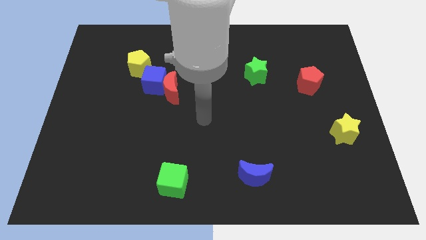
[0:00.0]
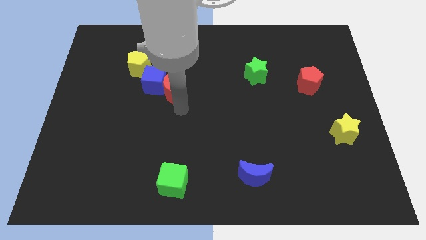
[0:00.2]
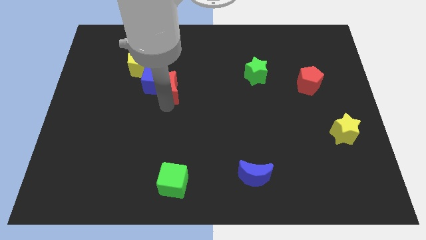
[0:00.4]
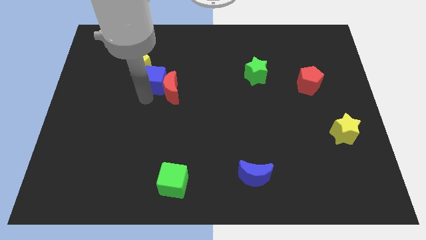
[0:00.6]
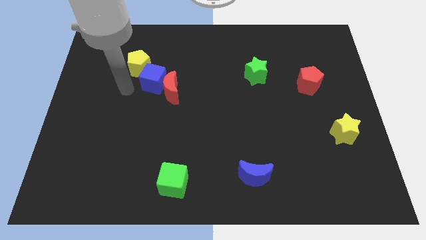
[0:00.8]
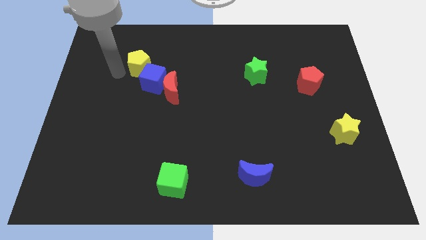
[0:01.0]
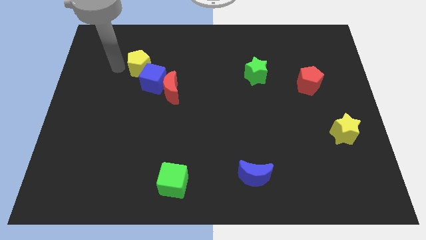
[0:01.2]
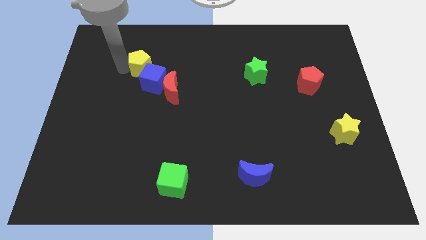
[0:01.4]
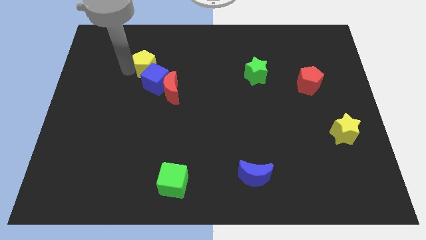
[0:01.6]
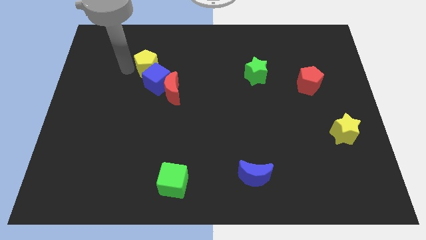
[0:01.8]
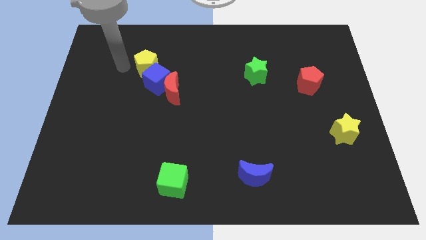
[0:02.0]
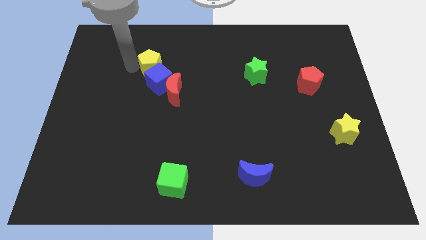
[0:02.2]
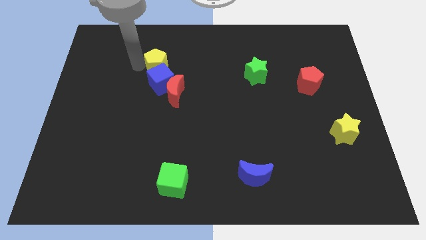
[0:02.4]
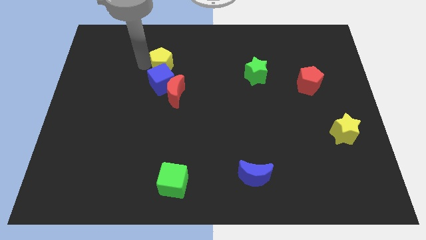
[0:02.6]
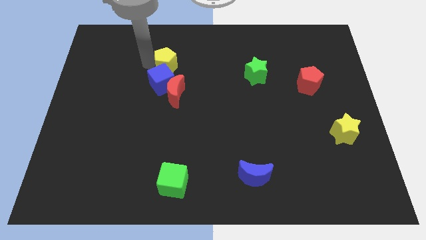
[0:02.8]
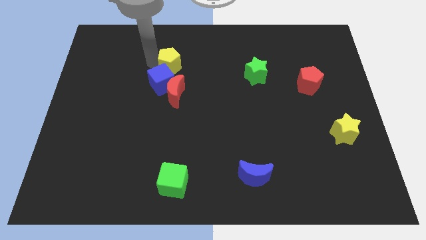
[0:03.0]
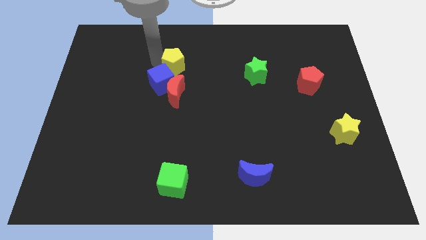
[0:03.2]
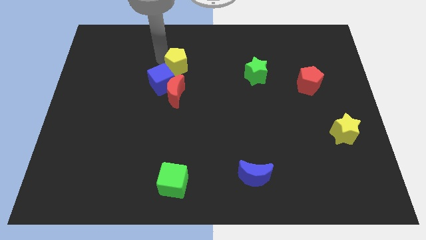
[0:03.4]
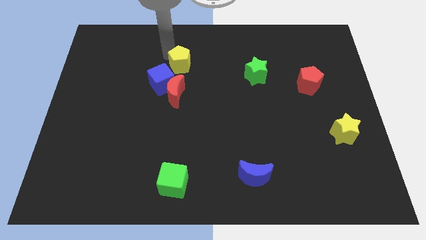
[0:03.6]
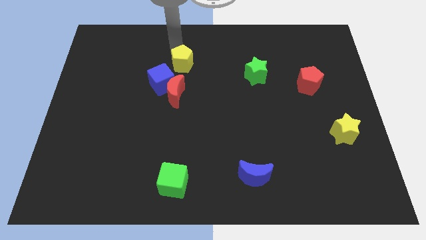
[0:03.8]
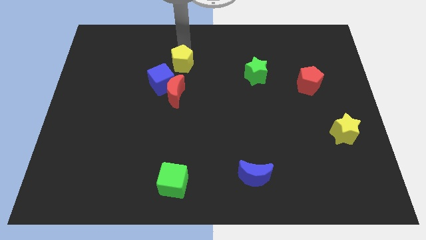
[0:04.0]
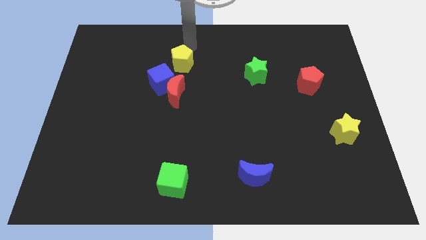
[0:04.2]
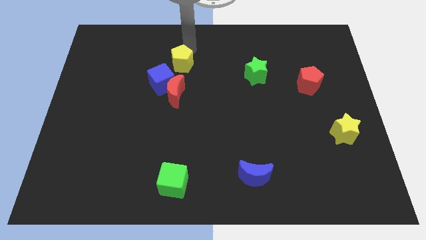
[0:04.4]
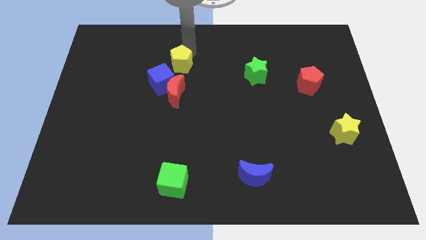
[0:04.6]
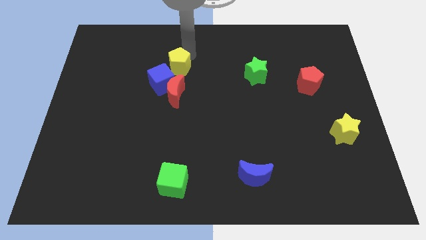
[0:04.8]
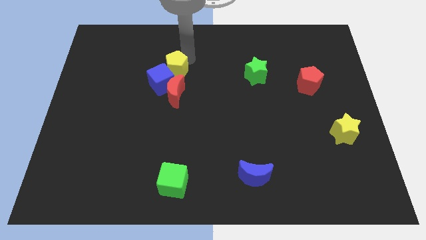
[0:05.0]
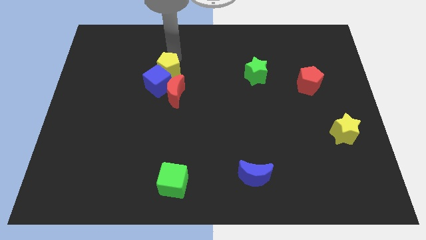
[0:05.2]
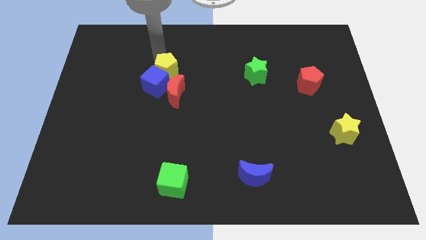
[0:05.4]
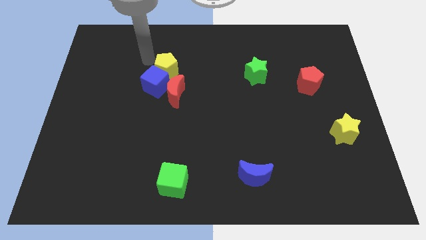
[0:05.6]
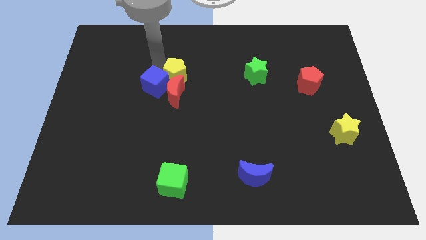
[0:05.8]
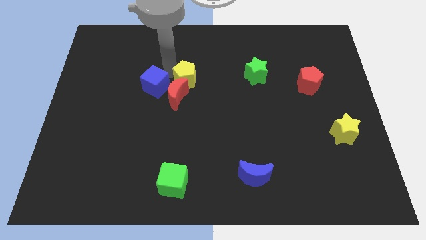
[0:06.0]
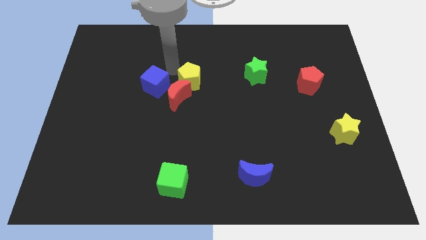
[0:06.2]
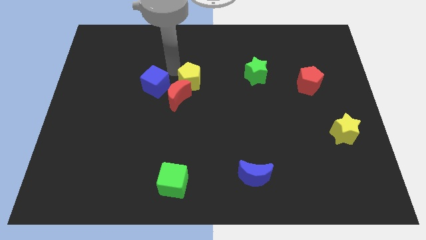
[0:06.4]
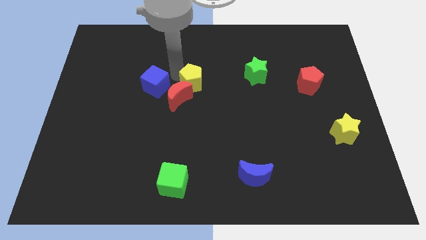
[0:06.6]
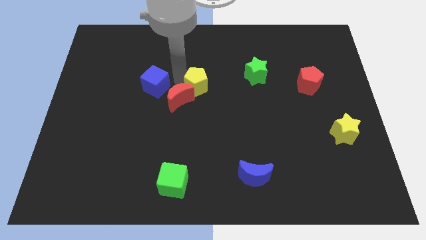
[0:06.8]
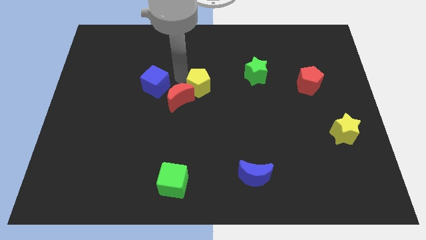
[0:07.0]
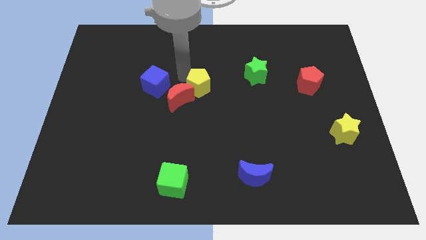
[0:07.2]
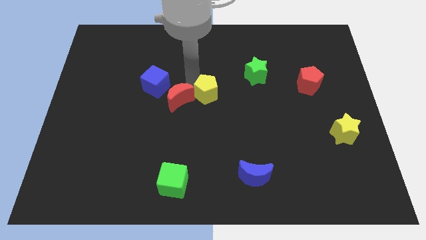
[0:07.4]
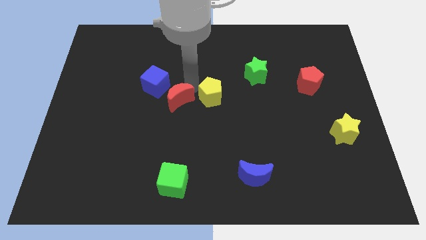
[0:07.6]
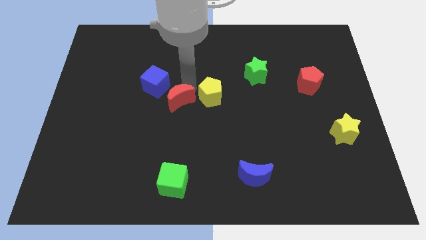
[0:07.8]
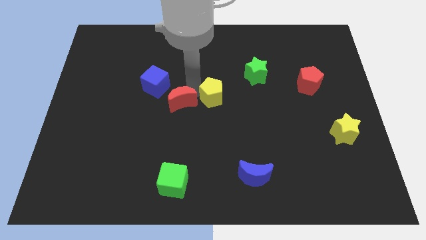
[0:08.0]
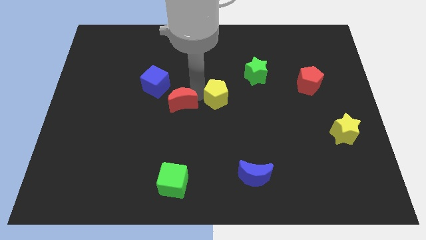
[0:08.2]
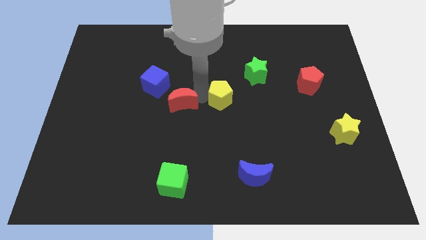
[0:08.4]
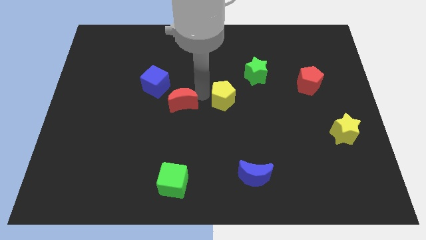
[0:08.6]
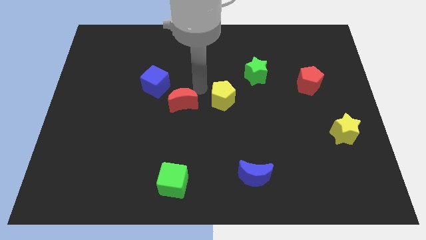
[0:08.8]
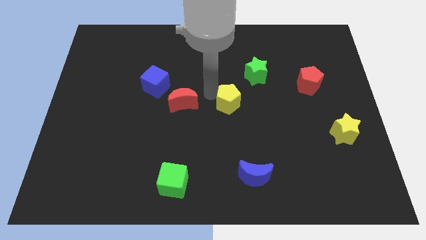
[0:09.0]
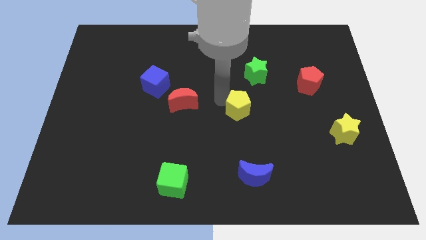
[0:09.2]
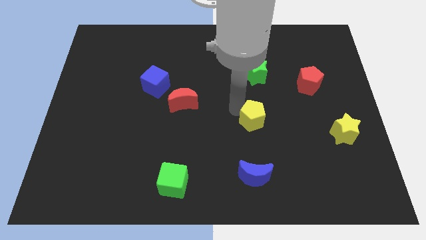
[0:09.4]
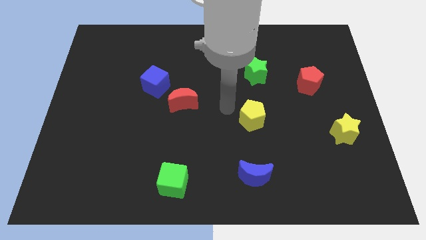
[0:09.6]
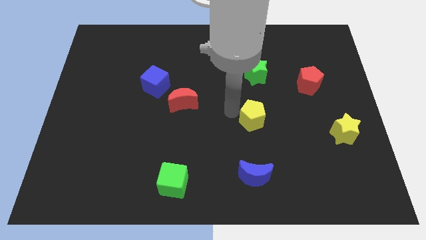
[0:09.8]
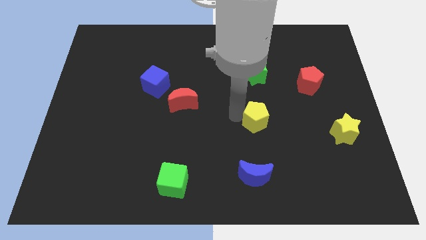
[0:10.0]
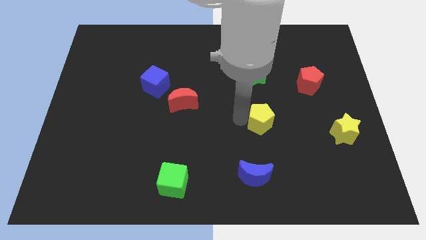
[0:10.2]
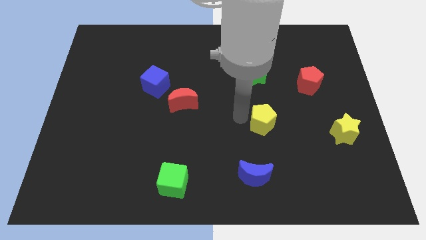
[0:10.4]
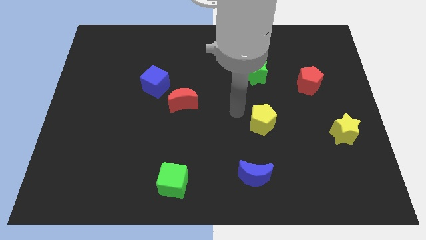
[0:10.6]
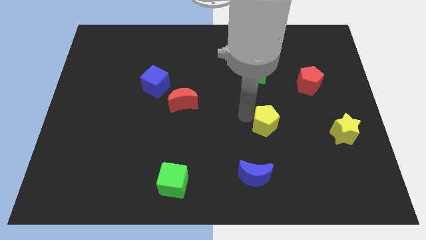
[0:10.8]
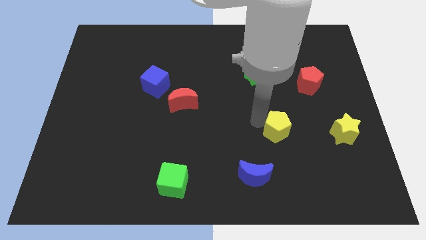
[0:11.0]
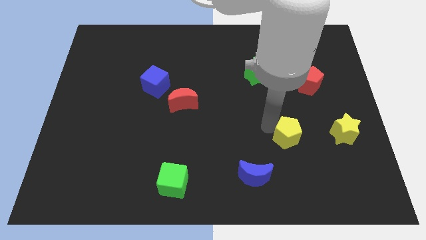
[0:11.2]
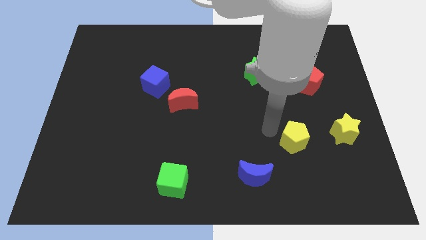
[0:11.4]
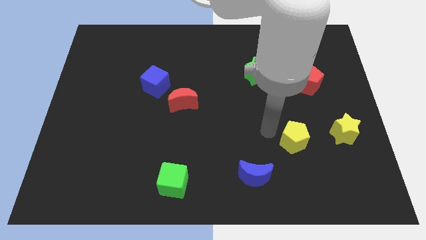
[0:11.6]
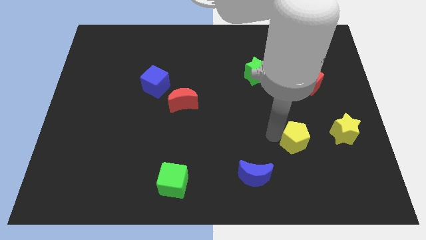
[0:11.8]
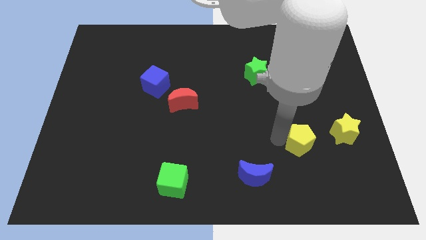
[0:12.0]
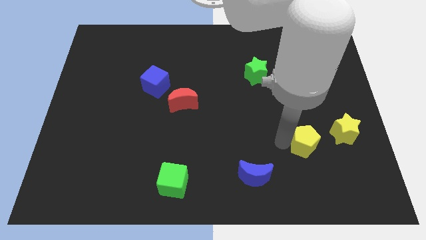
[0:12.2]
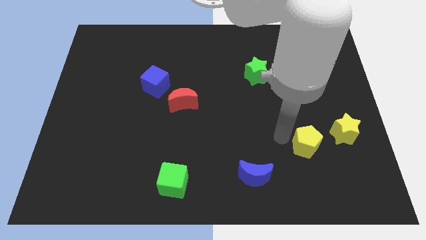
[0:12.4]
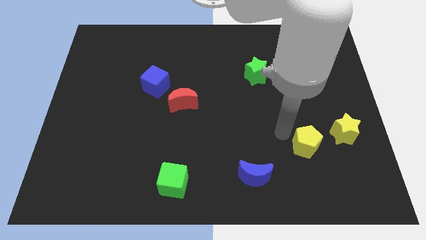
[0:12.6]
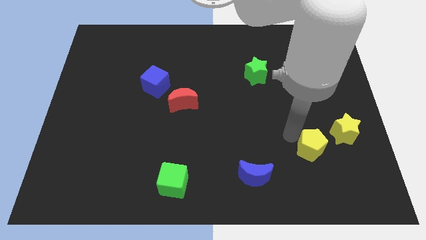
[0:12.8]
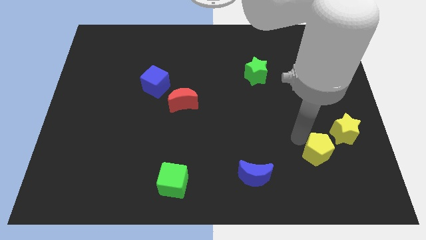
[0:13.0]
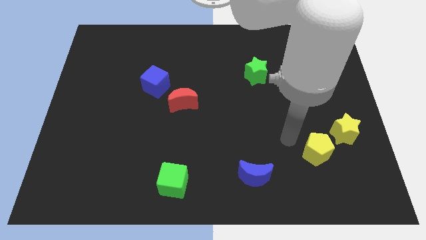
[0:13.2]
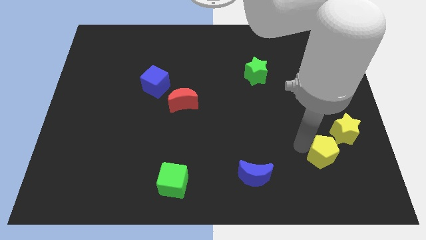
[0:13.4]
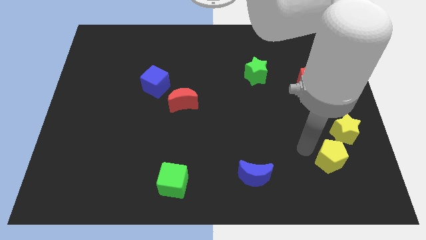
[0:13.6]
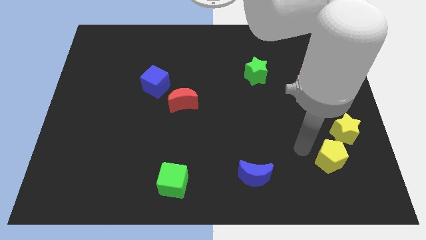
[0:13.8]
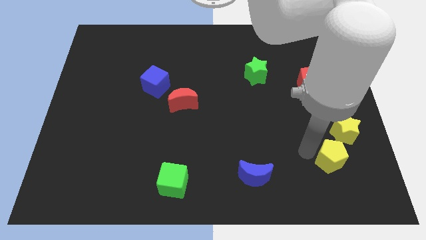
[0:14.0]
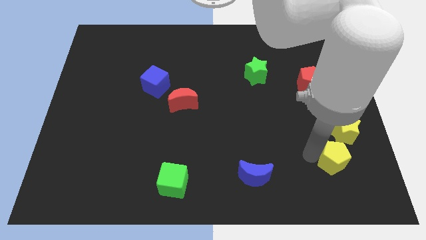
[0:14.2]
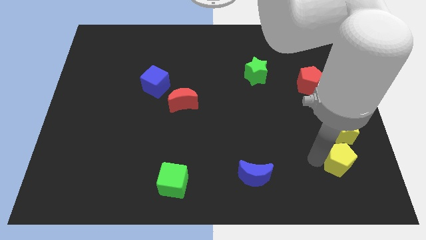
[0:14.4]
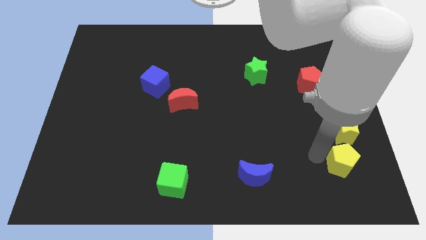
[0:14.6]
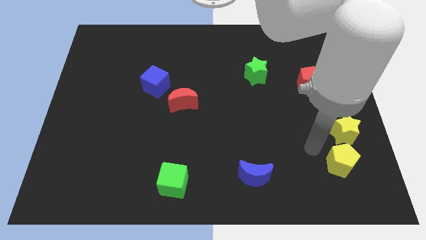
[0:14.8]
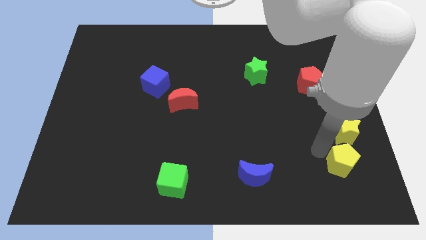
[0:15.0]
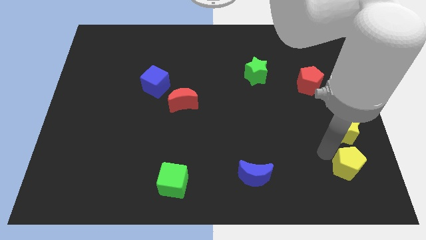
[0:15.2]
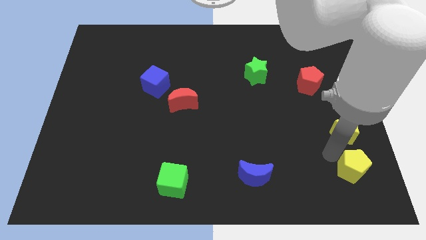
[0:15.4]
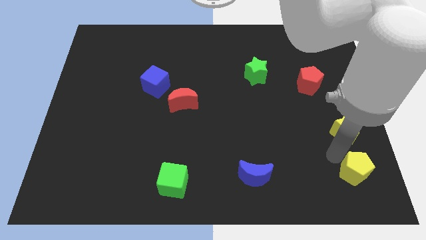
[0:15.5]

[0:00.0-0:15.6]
move the yellow pentagon to the bottom right corner
